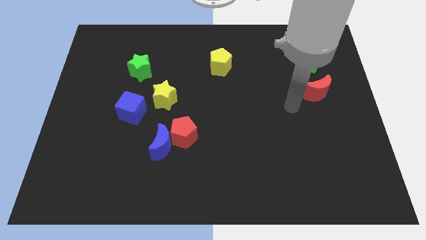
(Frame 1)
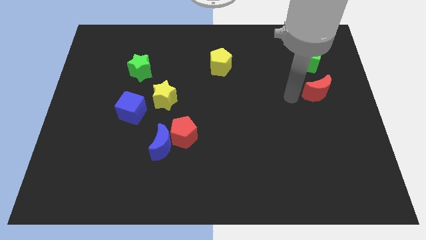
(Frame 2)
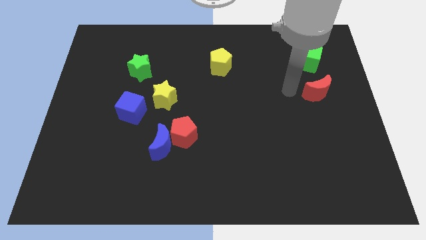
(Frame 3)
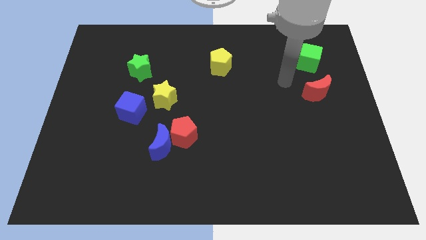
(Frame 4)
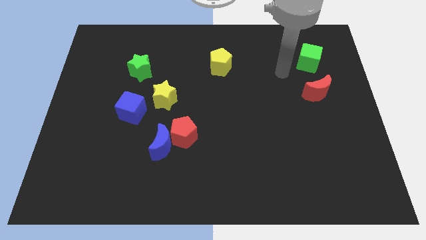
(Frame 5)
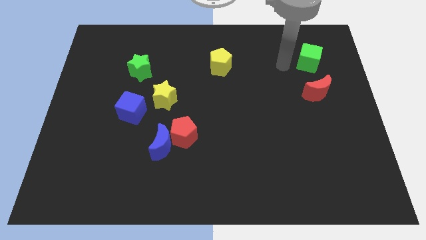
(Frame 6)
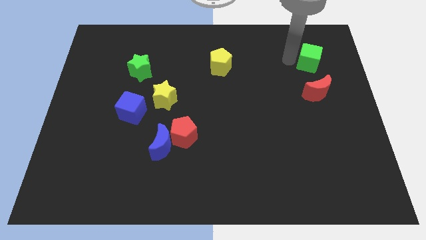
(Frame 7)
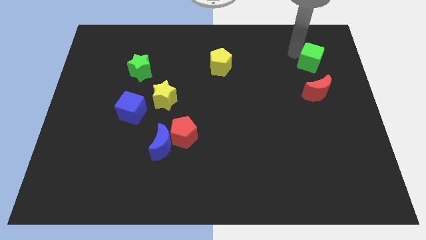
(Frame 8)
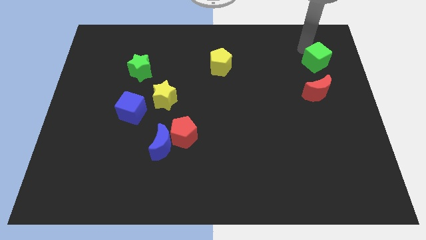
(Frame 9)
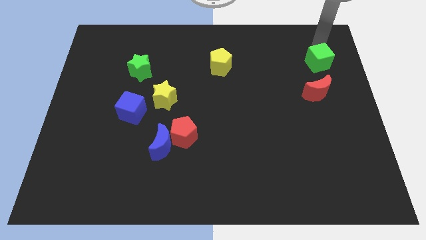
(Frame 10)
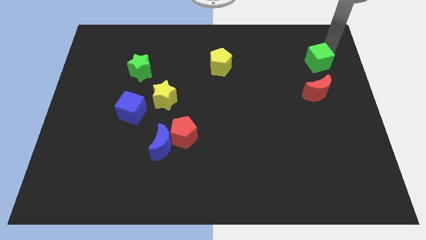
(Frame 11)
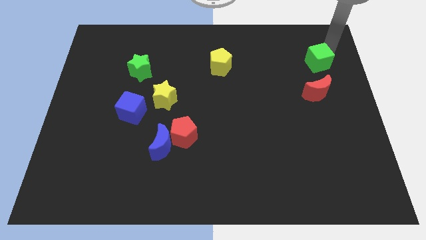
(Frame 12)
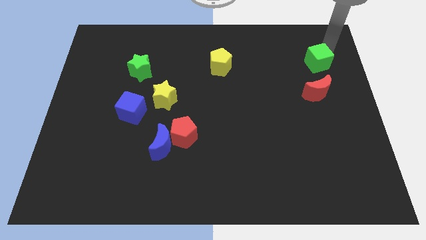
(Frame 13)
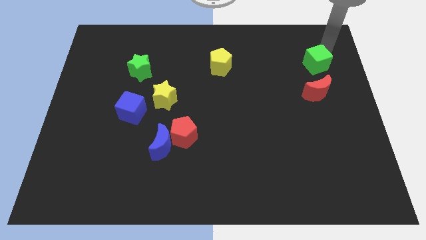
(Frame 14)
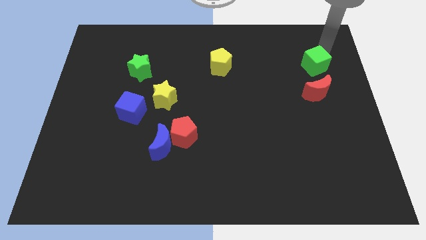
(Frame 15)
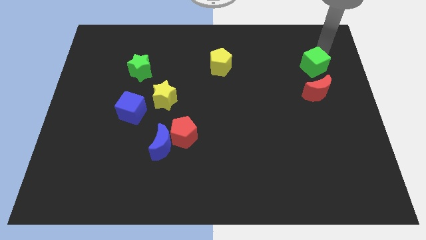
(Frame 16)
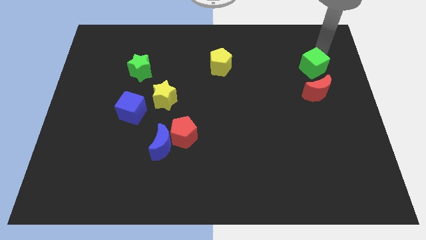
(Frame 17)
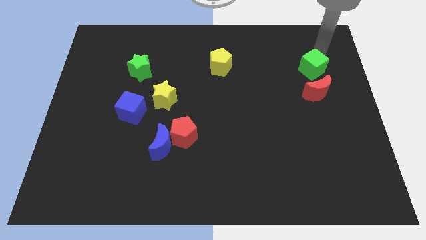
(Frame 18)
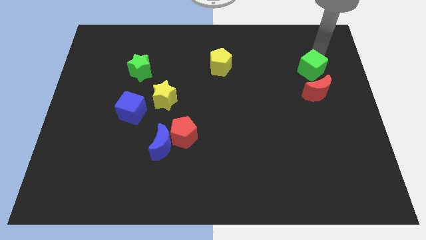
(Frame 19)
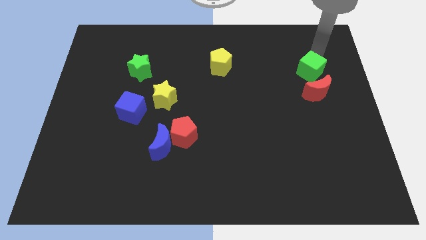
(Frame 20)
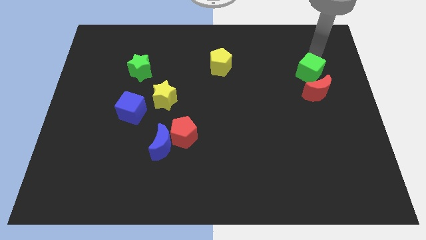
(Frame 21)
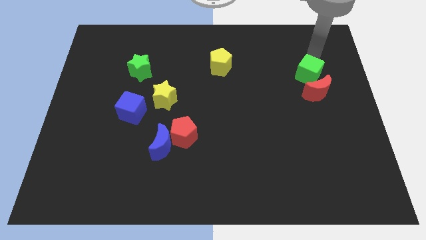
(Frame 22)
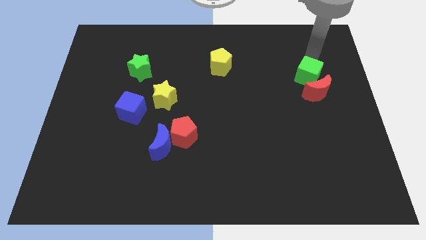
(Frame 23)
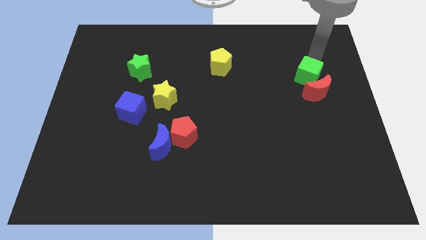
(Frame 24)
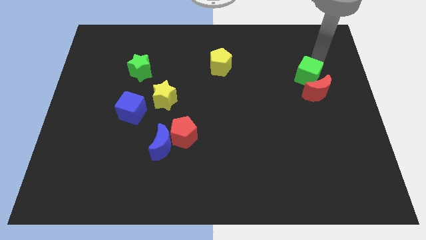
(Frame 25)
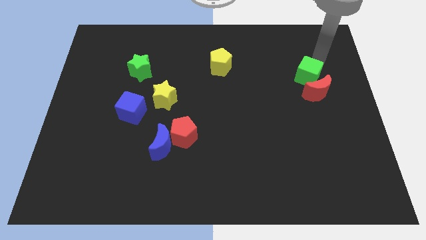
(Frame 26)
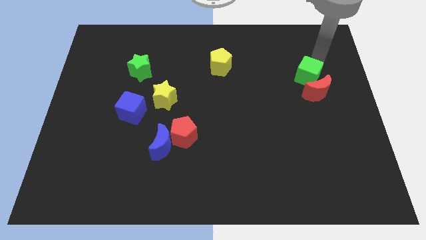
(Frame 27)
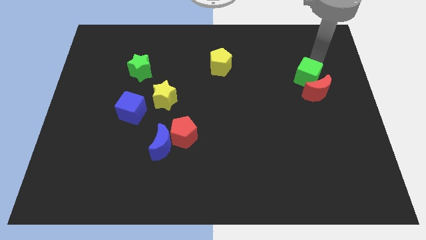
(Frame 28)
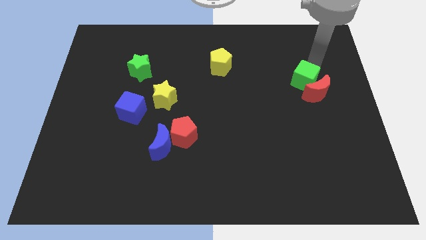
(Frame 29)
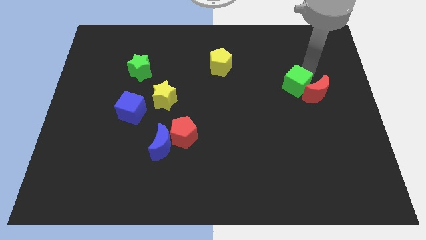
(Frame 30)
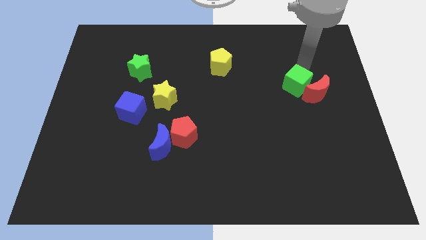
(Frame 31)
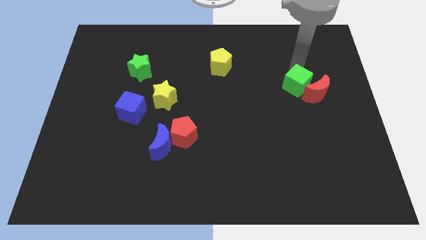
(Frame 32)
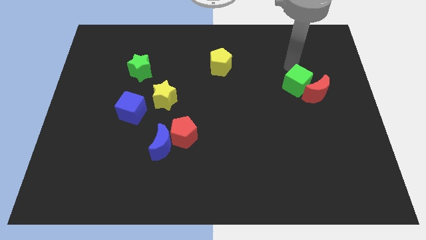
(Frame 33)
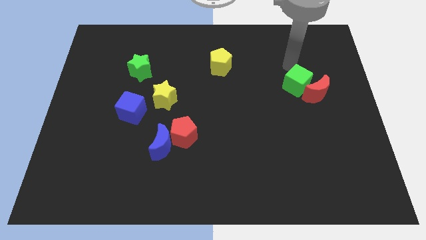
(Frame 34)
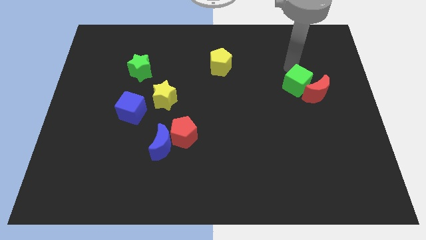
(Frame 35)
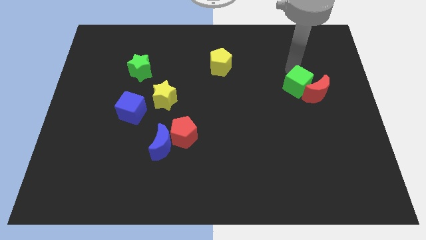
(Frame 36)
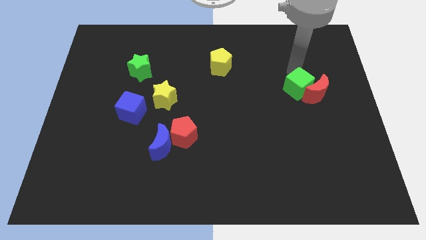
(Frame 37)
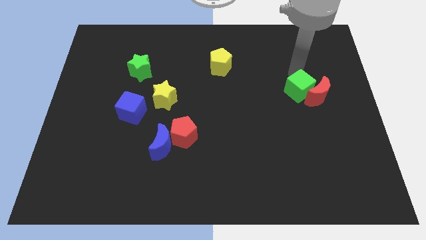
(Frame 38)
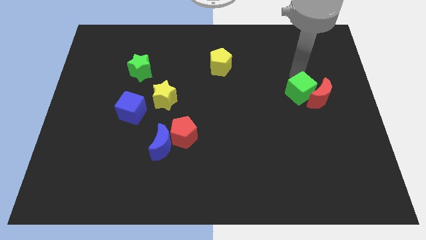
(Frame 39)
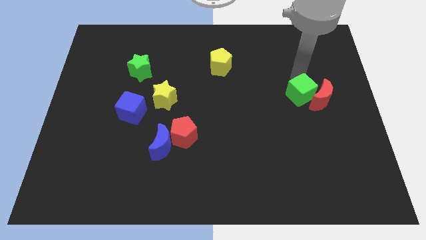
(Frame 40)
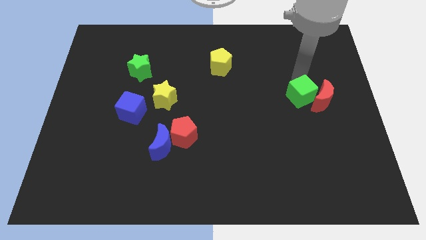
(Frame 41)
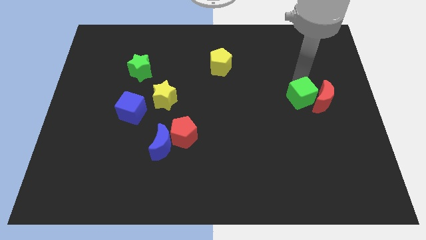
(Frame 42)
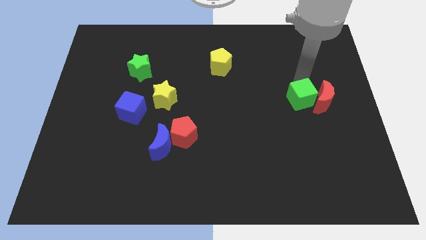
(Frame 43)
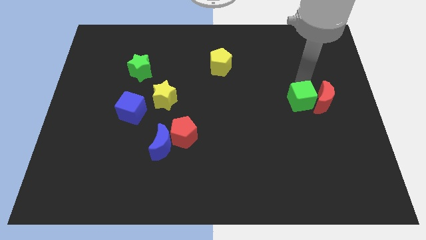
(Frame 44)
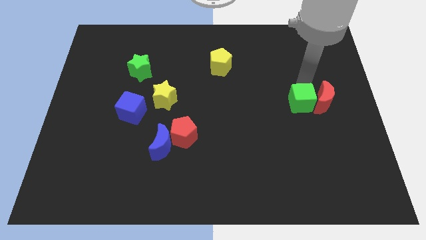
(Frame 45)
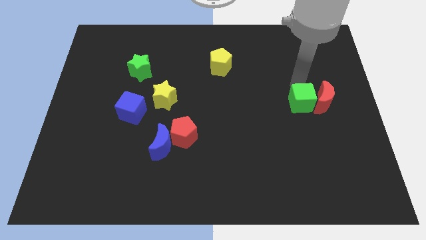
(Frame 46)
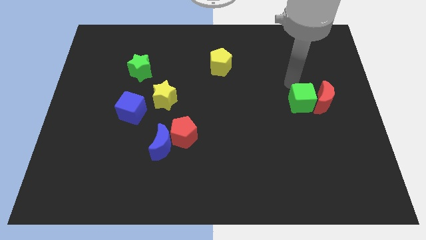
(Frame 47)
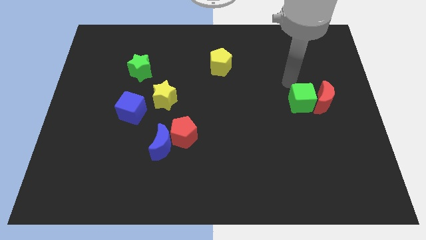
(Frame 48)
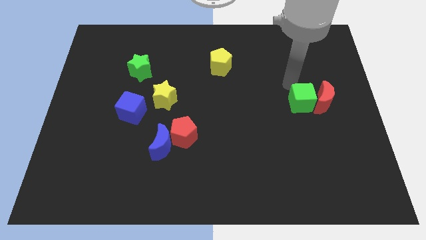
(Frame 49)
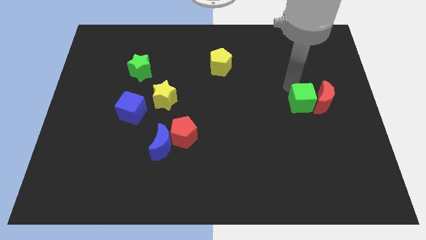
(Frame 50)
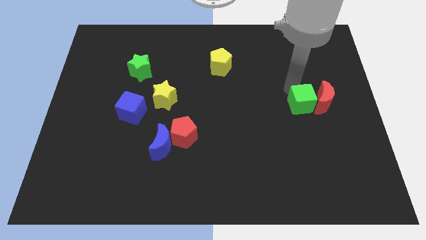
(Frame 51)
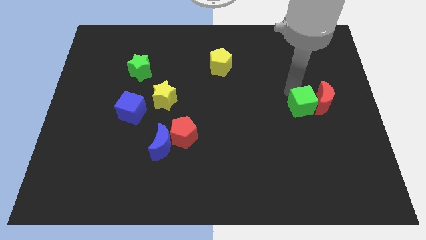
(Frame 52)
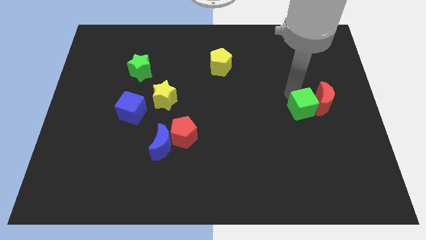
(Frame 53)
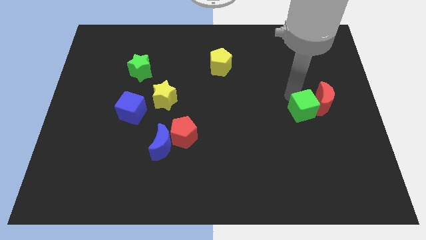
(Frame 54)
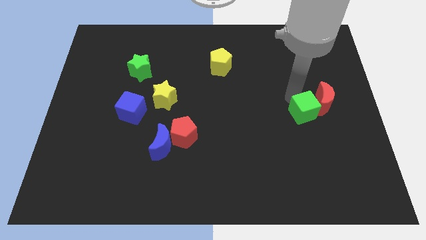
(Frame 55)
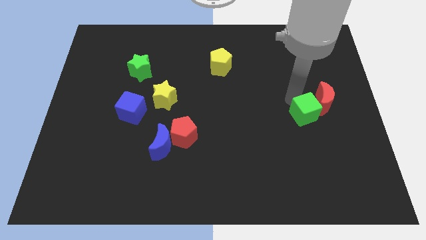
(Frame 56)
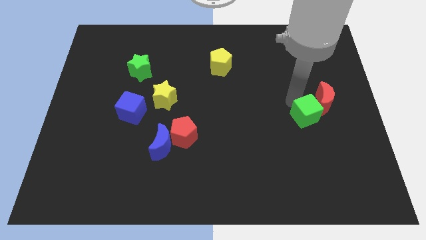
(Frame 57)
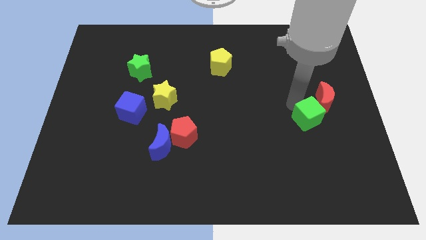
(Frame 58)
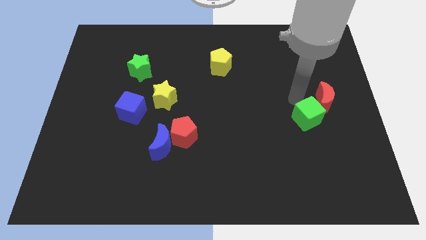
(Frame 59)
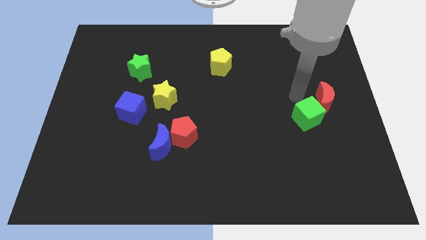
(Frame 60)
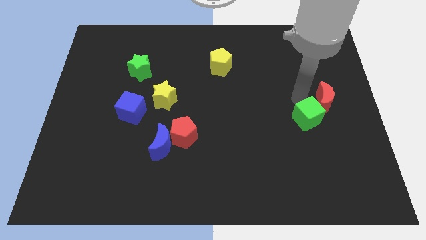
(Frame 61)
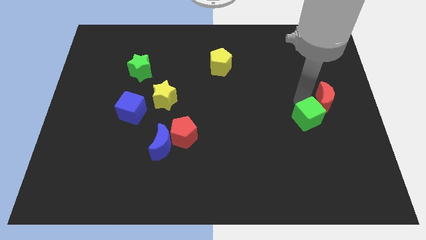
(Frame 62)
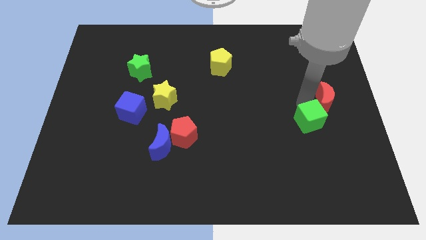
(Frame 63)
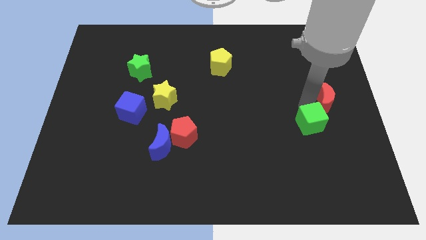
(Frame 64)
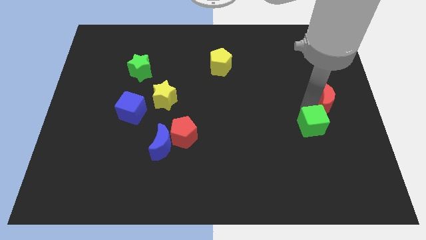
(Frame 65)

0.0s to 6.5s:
move the green cube downwards

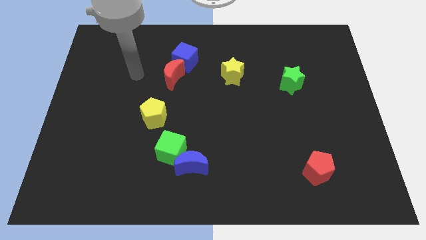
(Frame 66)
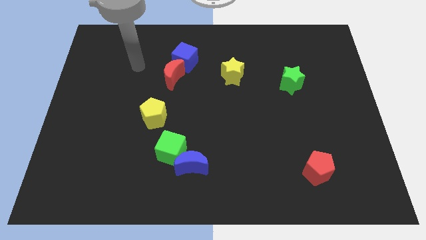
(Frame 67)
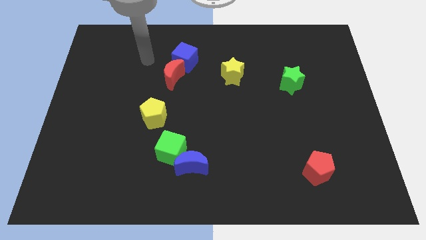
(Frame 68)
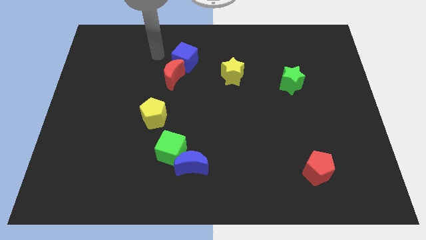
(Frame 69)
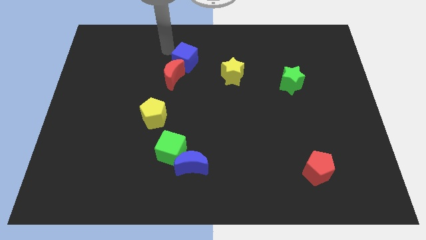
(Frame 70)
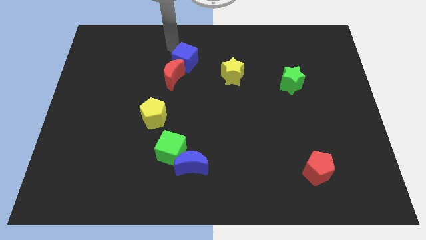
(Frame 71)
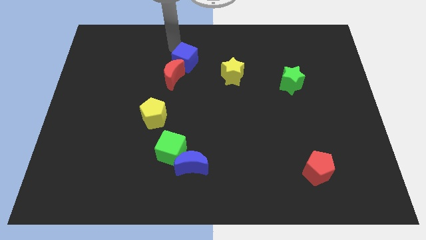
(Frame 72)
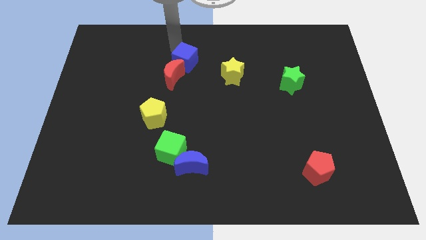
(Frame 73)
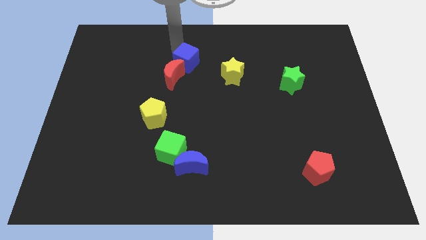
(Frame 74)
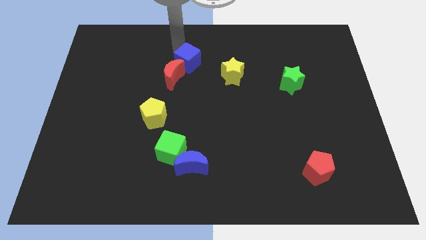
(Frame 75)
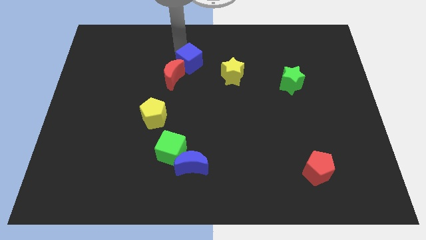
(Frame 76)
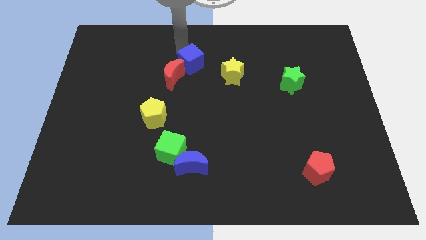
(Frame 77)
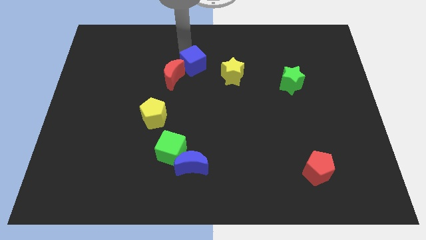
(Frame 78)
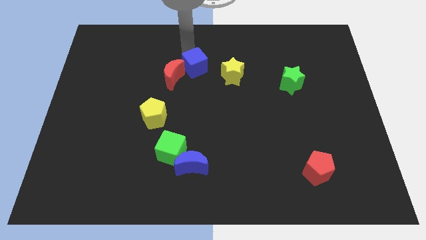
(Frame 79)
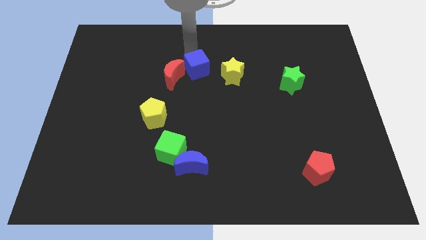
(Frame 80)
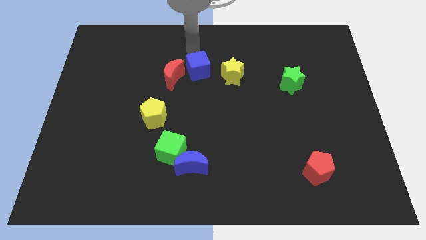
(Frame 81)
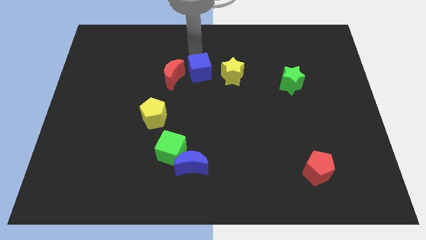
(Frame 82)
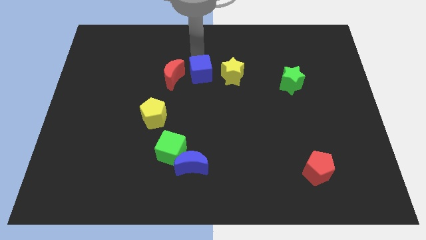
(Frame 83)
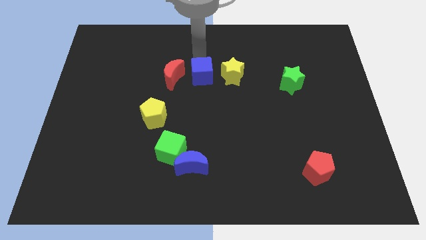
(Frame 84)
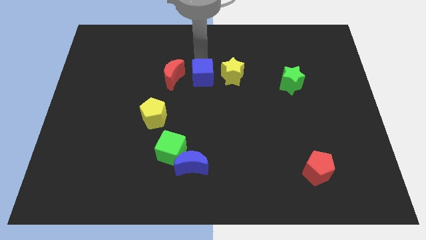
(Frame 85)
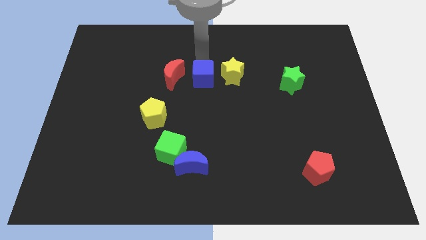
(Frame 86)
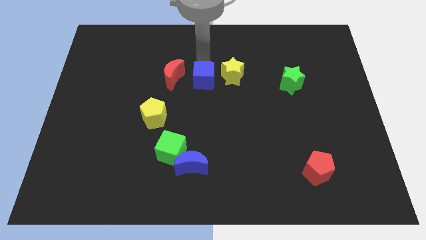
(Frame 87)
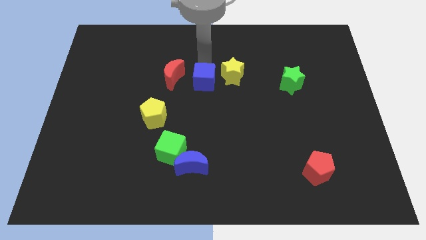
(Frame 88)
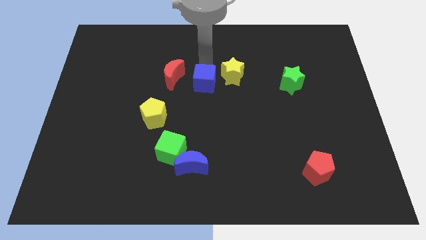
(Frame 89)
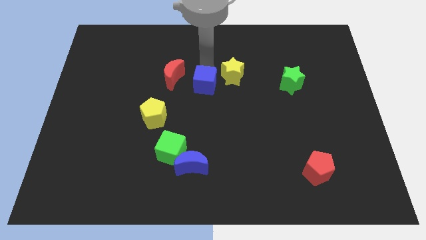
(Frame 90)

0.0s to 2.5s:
move the blue cube somewhat down
